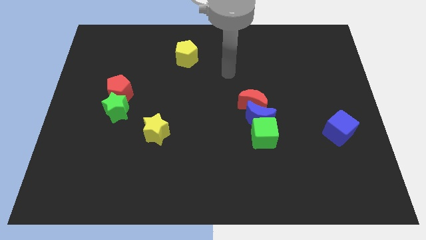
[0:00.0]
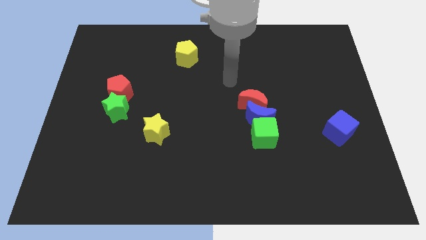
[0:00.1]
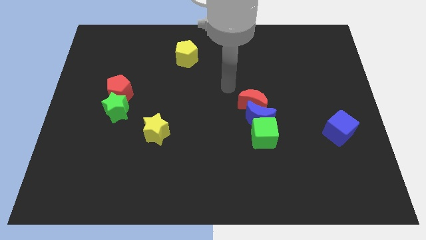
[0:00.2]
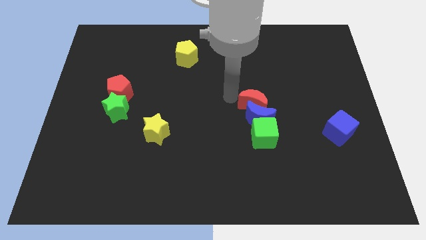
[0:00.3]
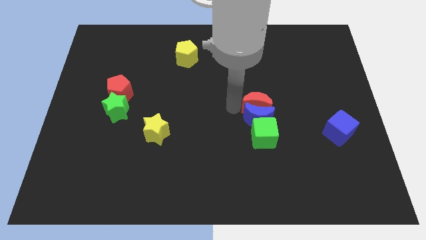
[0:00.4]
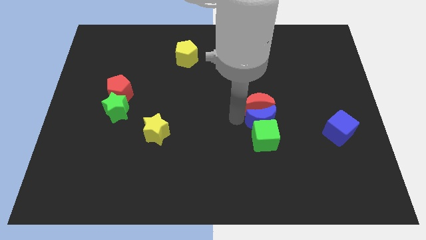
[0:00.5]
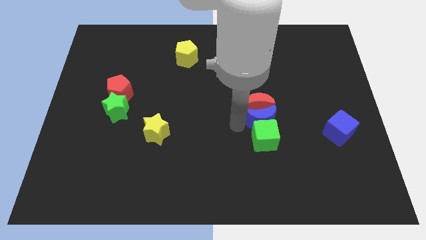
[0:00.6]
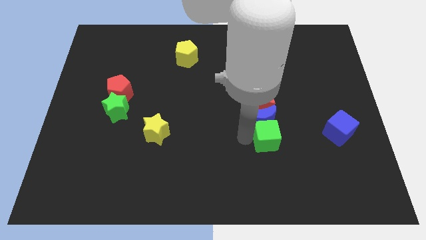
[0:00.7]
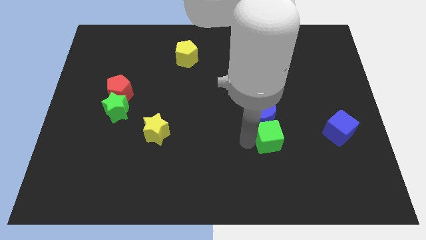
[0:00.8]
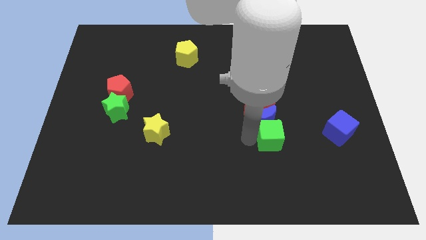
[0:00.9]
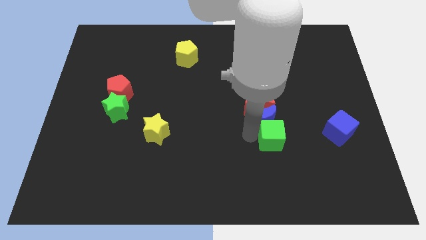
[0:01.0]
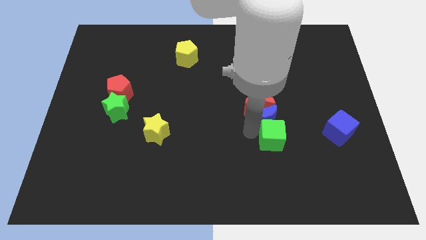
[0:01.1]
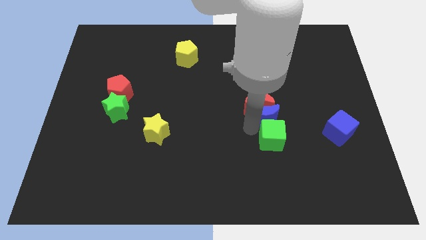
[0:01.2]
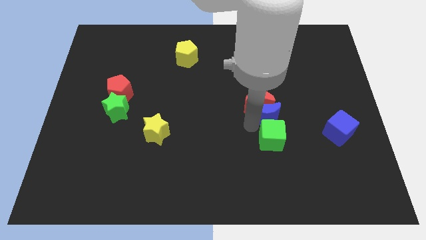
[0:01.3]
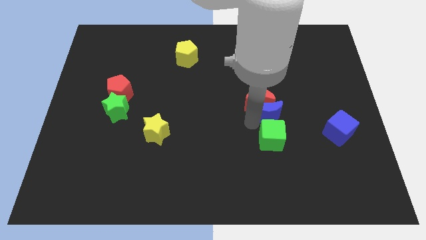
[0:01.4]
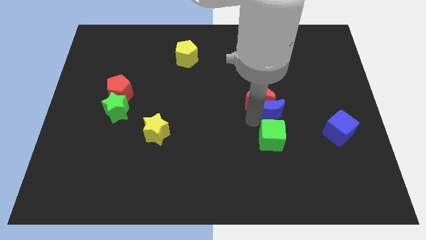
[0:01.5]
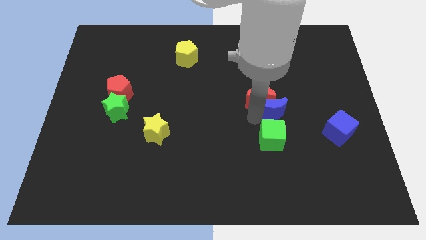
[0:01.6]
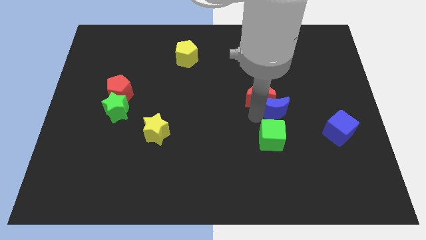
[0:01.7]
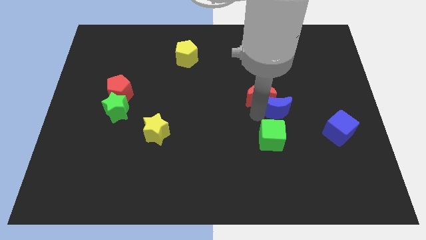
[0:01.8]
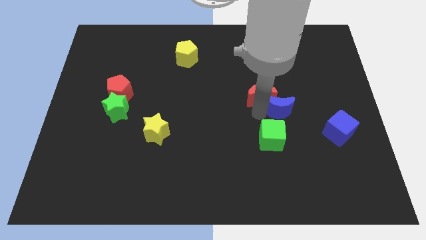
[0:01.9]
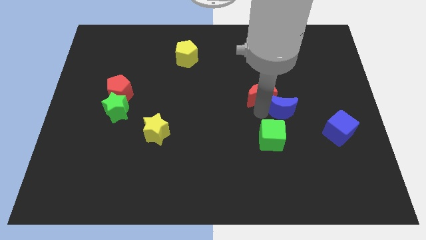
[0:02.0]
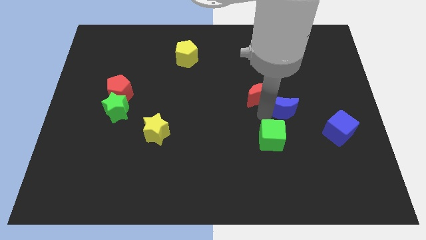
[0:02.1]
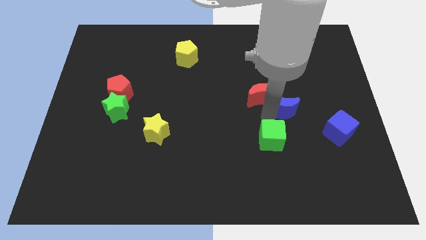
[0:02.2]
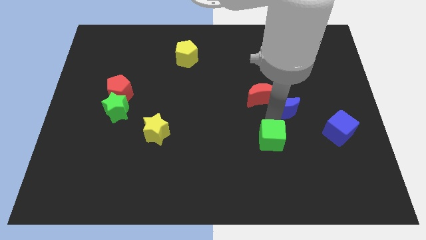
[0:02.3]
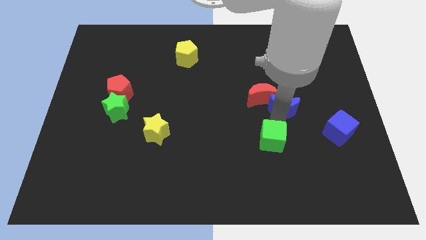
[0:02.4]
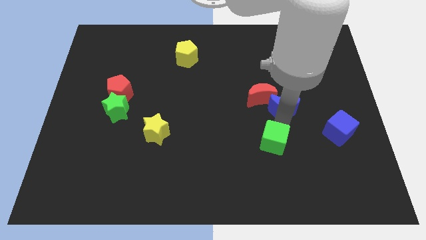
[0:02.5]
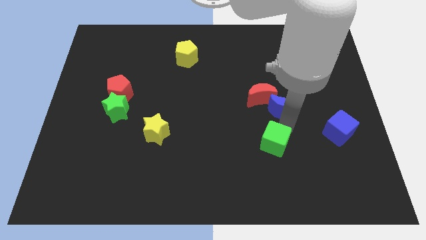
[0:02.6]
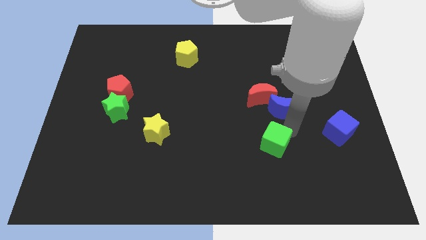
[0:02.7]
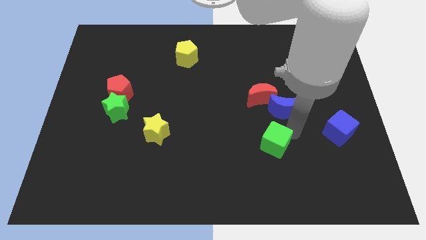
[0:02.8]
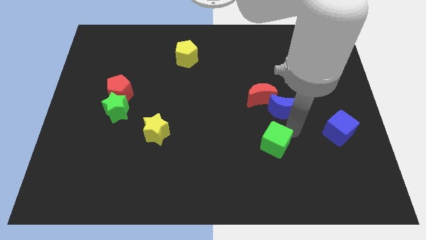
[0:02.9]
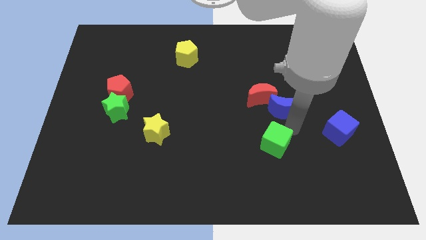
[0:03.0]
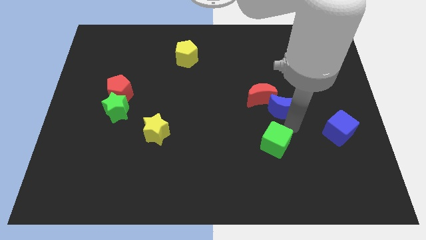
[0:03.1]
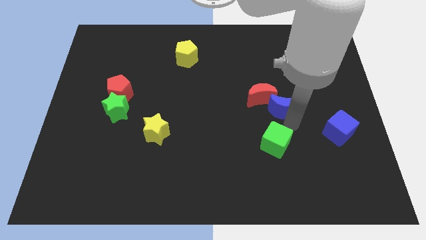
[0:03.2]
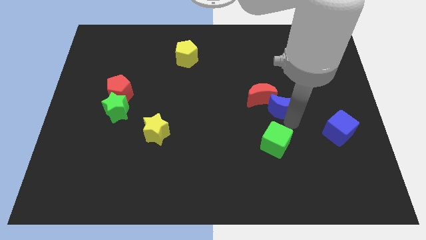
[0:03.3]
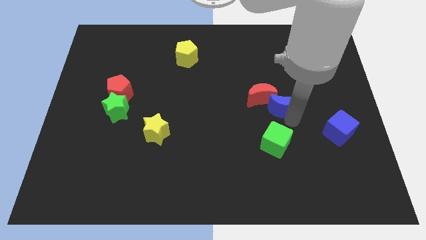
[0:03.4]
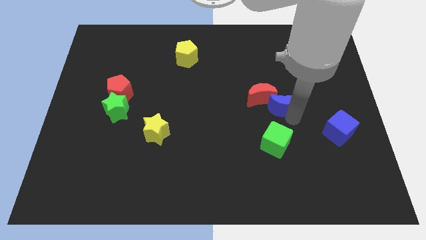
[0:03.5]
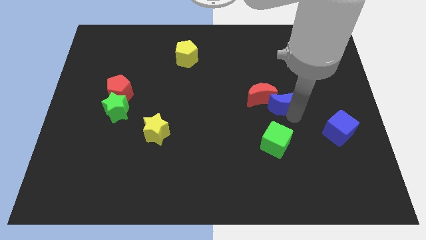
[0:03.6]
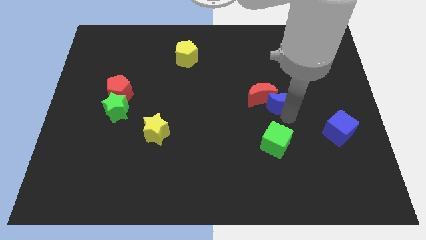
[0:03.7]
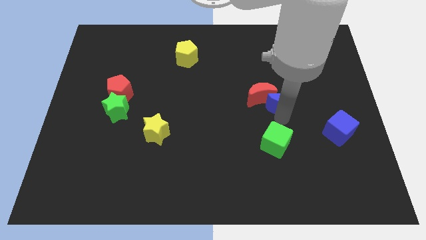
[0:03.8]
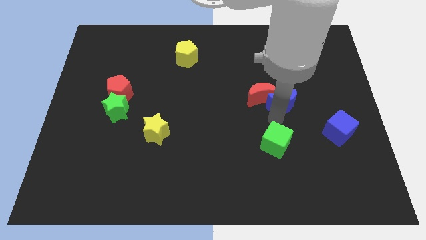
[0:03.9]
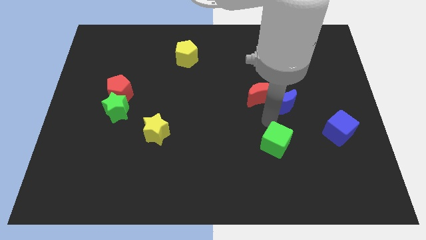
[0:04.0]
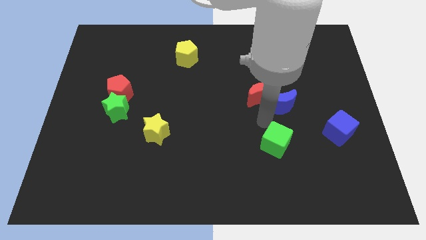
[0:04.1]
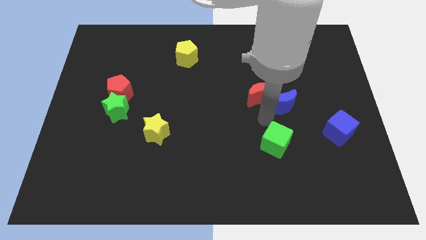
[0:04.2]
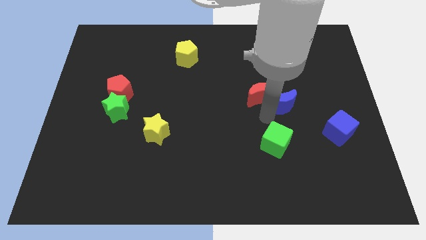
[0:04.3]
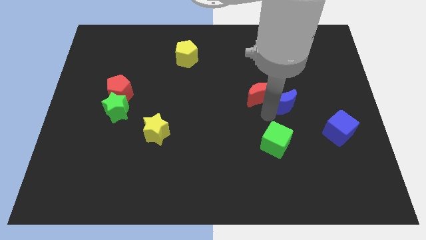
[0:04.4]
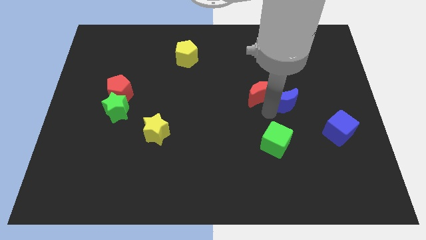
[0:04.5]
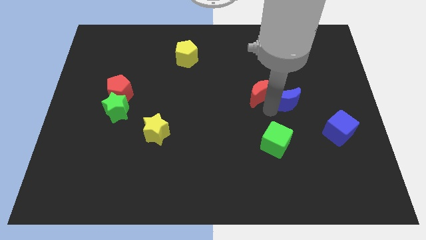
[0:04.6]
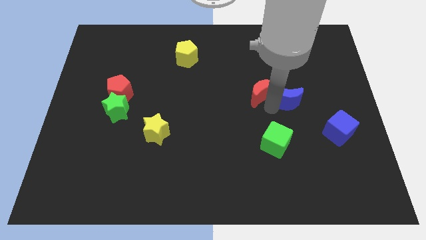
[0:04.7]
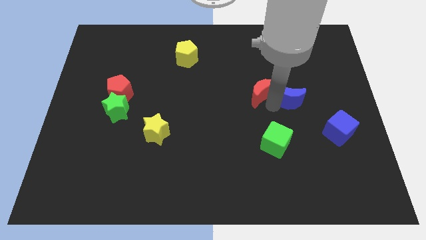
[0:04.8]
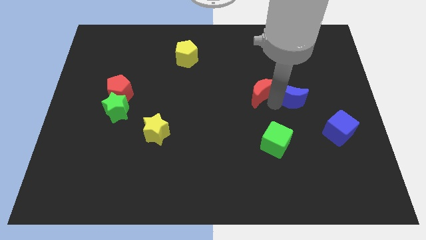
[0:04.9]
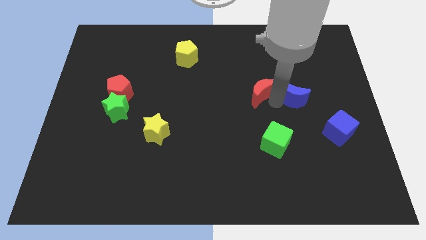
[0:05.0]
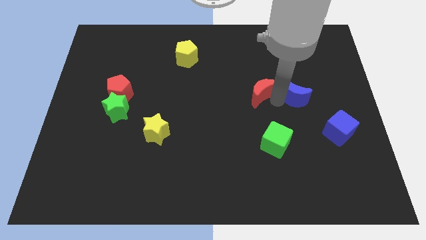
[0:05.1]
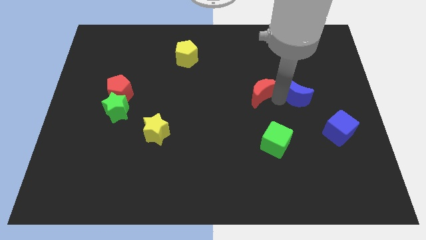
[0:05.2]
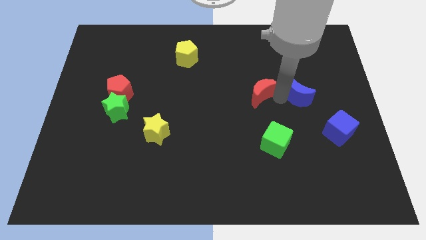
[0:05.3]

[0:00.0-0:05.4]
separate the blue moon from the red moon and green cube

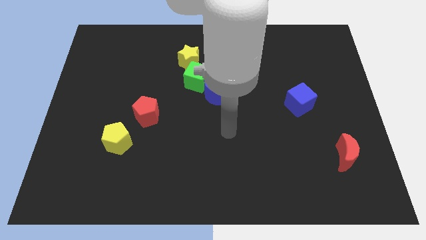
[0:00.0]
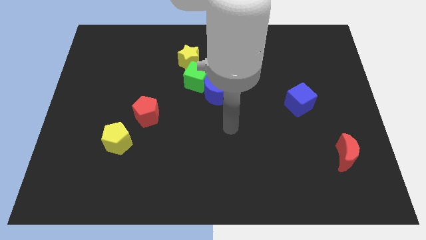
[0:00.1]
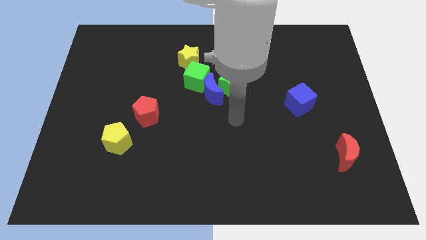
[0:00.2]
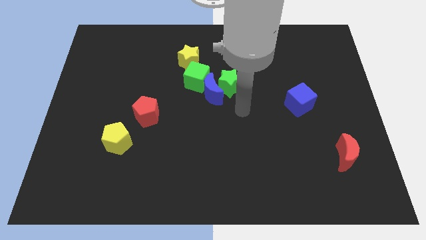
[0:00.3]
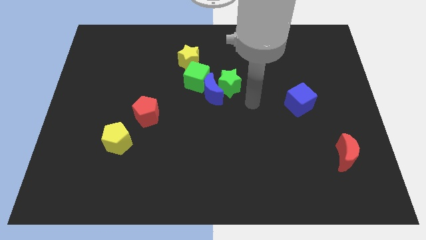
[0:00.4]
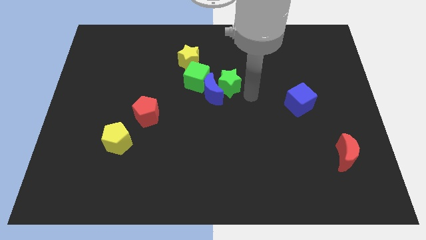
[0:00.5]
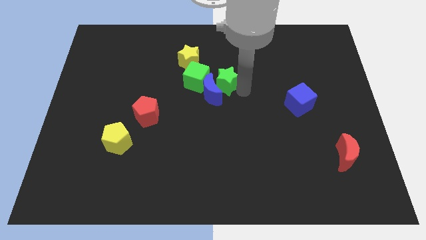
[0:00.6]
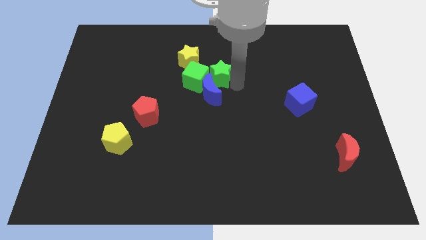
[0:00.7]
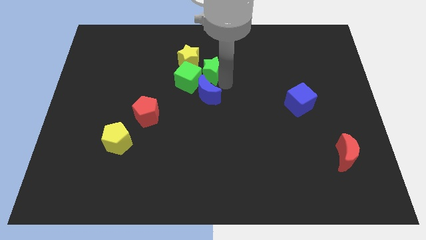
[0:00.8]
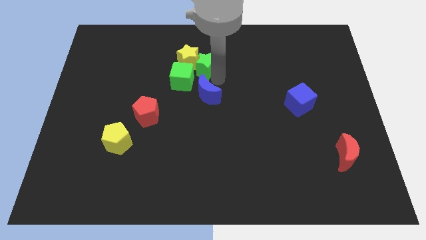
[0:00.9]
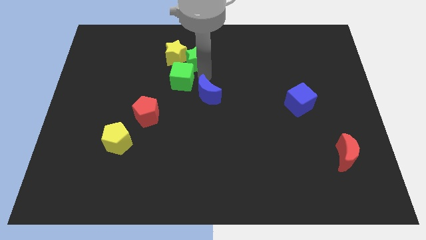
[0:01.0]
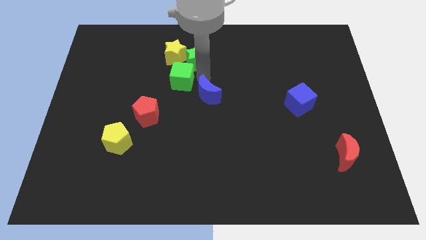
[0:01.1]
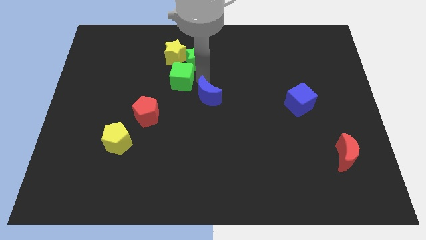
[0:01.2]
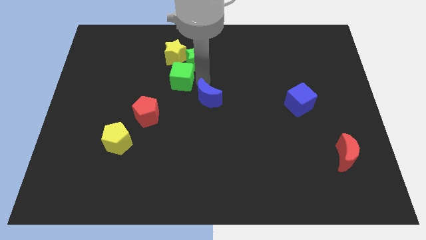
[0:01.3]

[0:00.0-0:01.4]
move the blue moon away from the green star and green cube

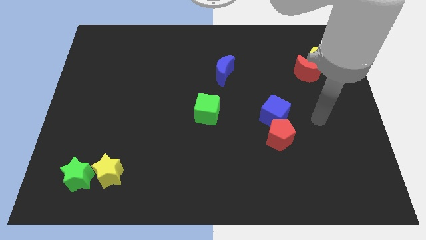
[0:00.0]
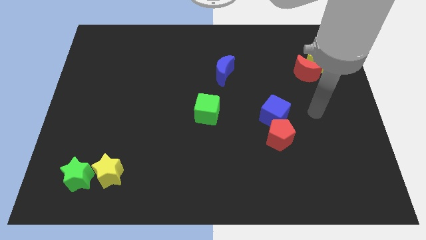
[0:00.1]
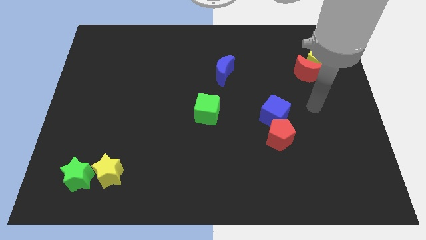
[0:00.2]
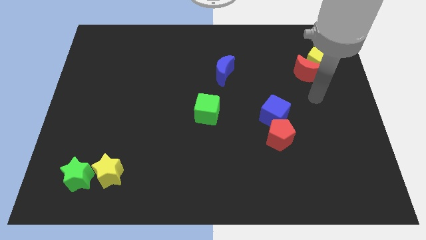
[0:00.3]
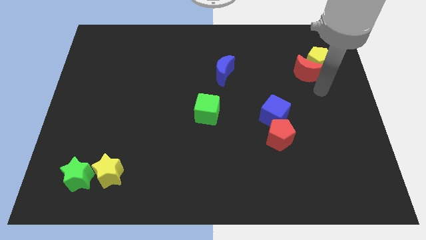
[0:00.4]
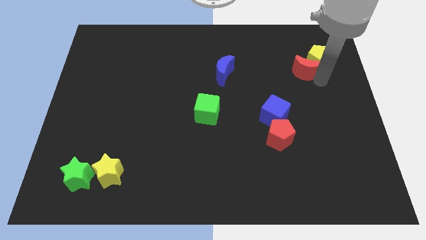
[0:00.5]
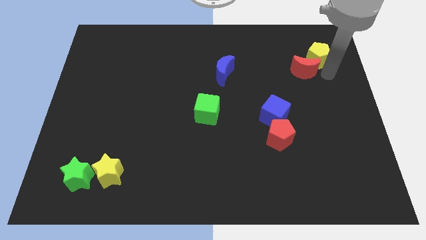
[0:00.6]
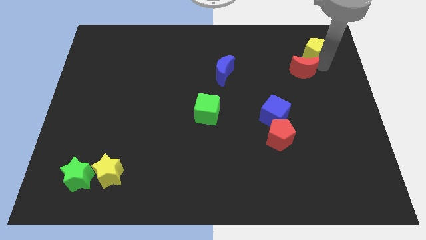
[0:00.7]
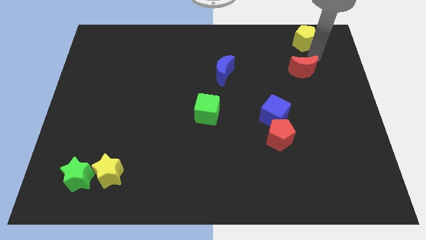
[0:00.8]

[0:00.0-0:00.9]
pull the red moon apart from the yellow pentagon

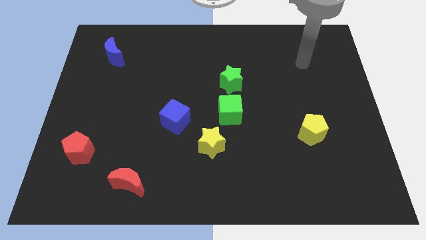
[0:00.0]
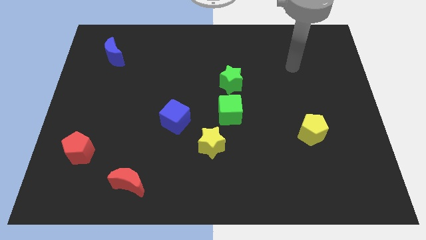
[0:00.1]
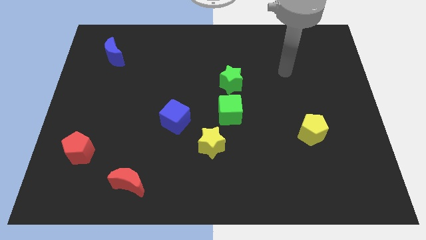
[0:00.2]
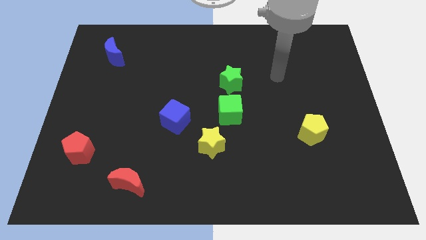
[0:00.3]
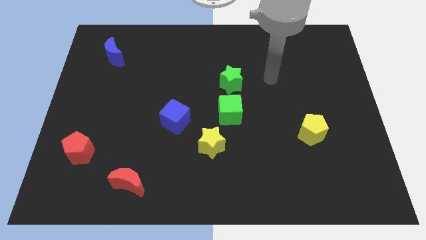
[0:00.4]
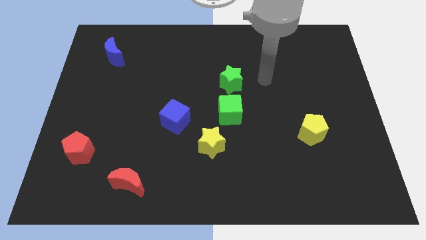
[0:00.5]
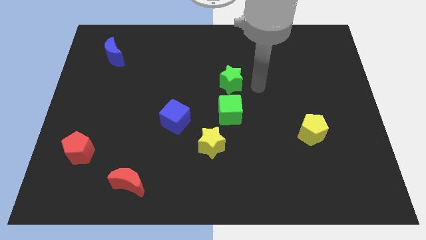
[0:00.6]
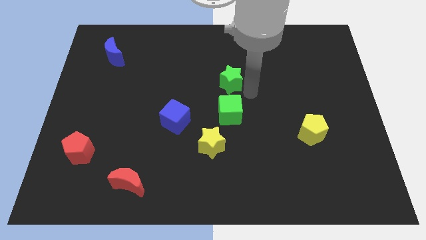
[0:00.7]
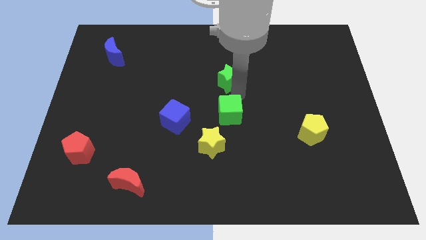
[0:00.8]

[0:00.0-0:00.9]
pull the green star apart from the green cube

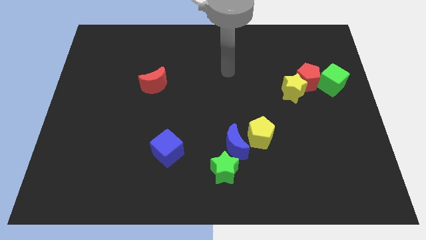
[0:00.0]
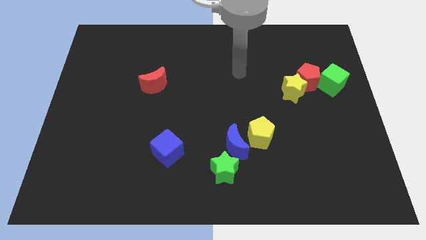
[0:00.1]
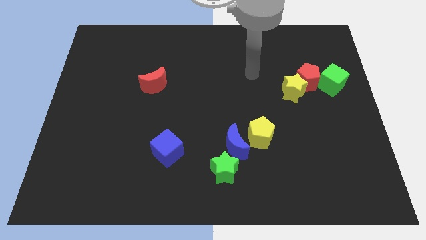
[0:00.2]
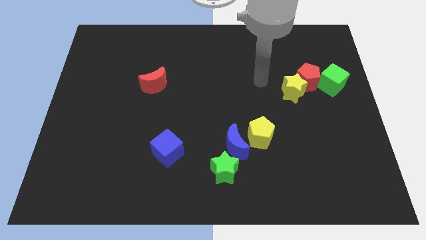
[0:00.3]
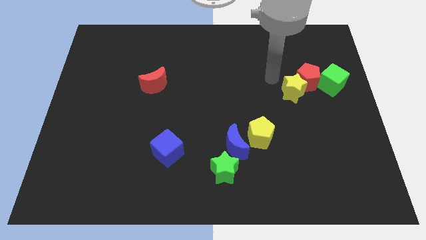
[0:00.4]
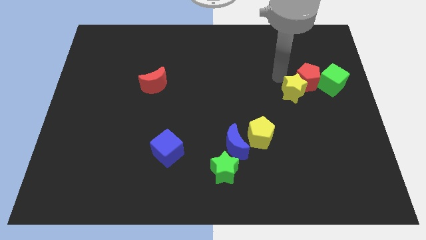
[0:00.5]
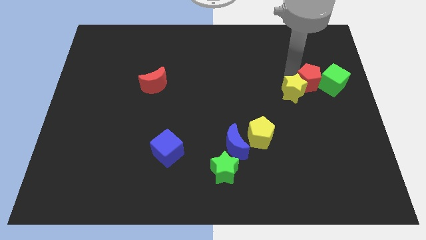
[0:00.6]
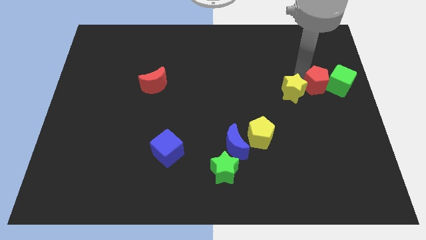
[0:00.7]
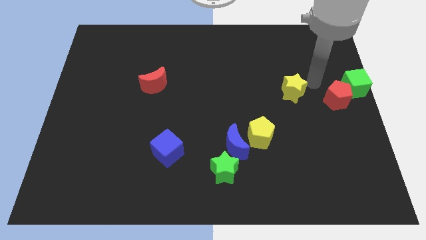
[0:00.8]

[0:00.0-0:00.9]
move the yellow star away from the red pentagon
